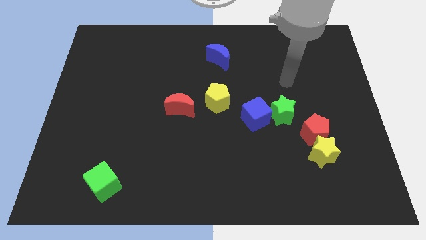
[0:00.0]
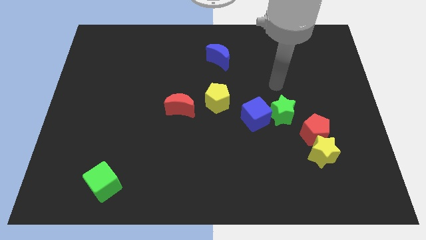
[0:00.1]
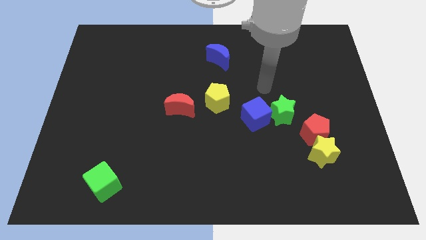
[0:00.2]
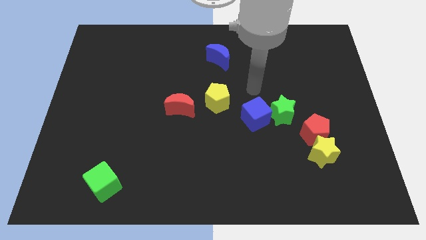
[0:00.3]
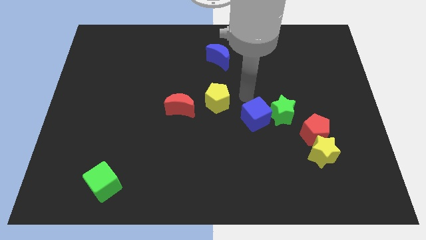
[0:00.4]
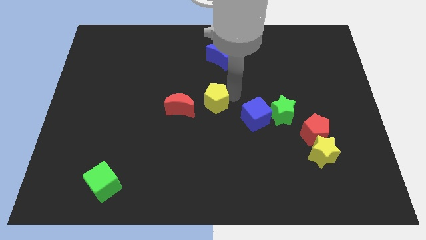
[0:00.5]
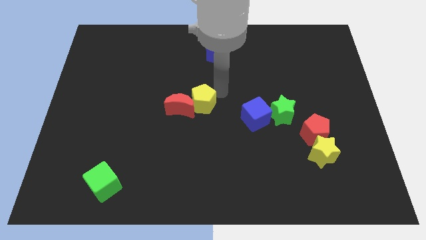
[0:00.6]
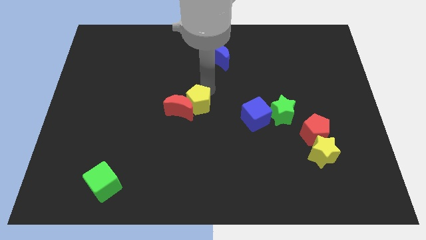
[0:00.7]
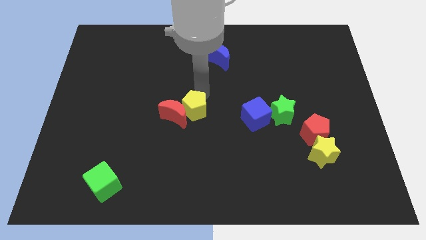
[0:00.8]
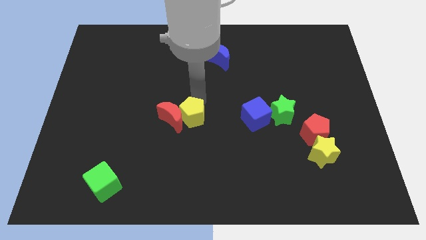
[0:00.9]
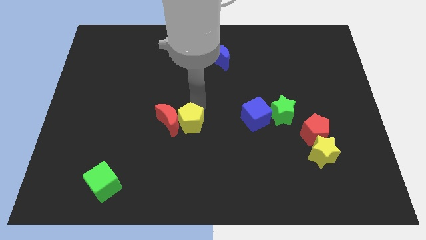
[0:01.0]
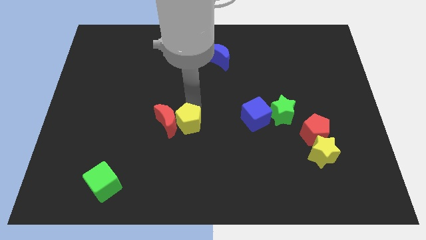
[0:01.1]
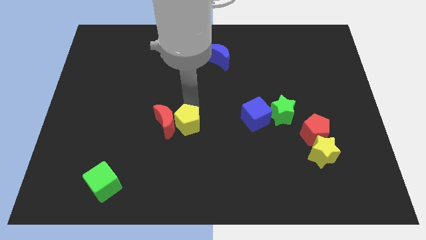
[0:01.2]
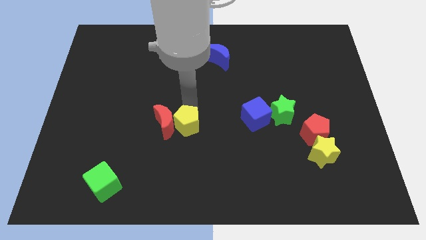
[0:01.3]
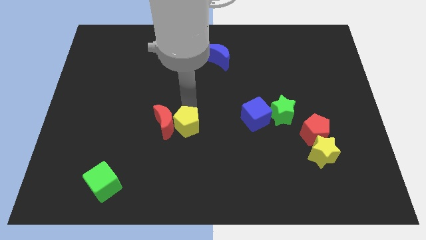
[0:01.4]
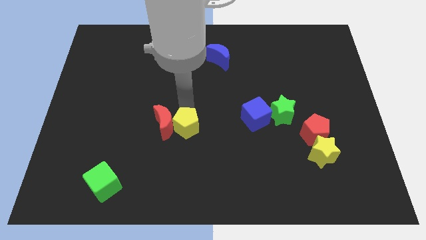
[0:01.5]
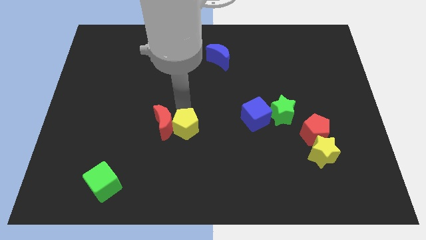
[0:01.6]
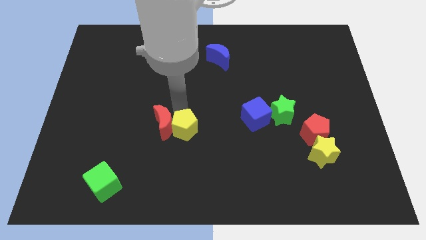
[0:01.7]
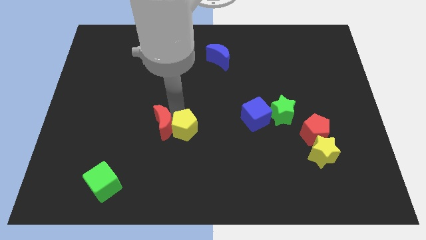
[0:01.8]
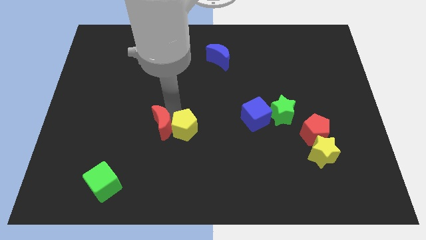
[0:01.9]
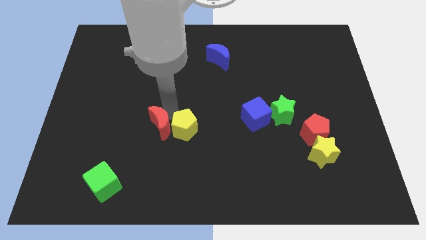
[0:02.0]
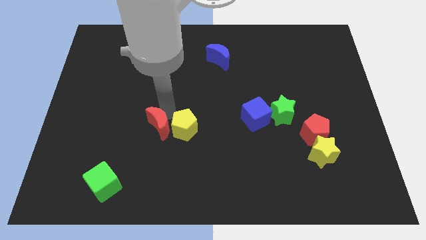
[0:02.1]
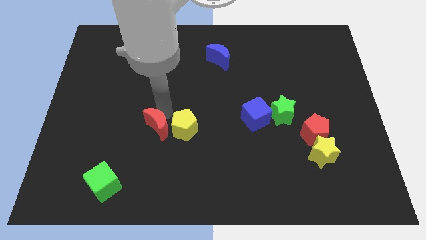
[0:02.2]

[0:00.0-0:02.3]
slightly slide the red moon down and then to the left

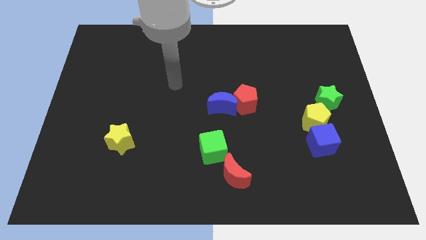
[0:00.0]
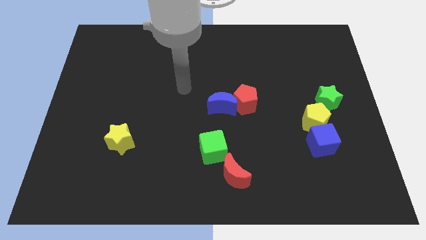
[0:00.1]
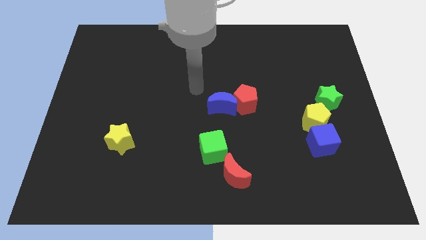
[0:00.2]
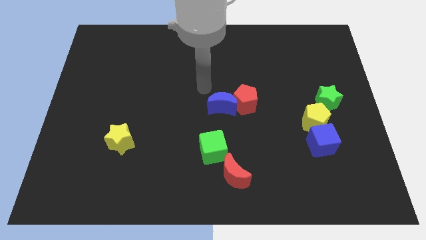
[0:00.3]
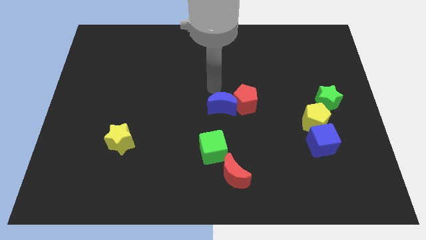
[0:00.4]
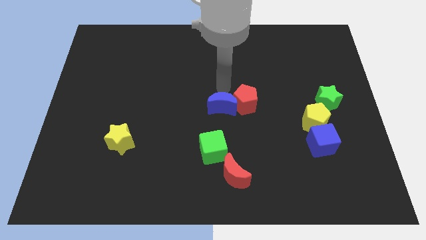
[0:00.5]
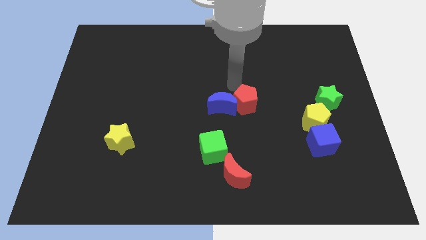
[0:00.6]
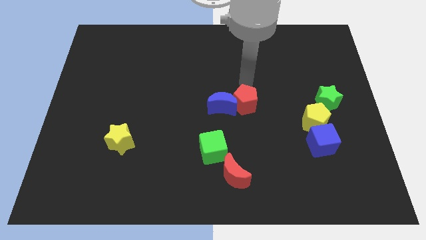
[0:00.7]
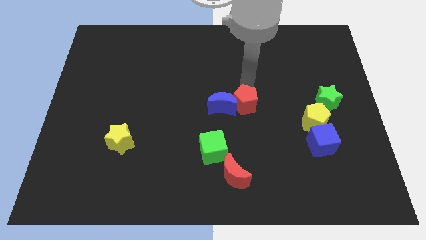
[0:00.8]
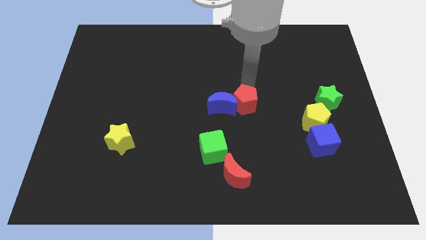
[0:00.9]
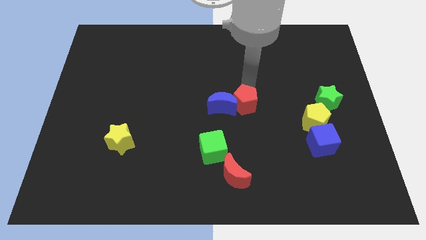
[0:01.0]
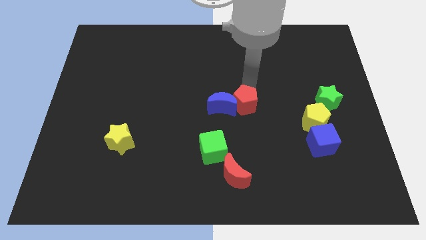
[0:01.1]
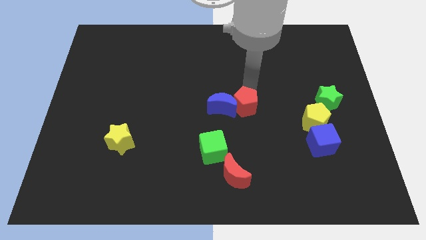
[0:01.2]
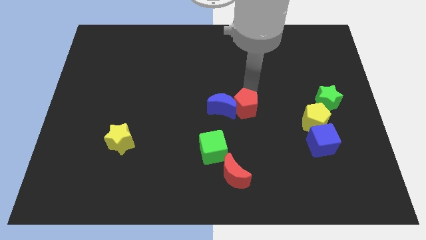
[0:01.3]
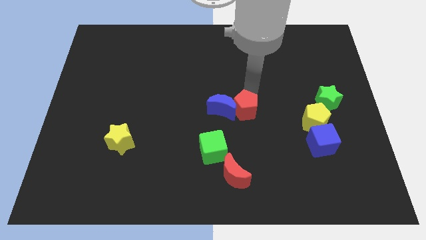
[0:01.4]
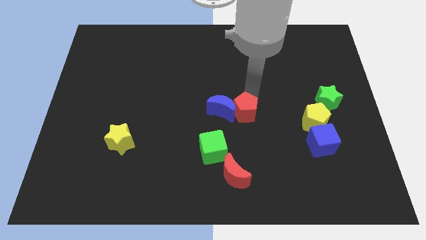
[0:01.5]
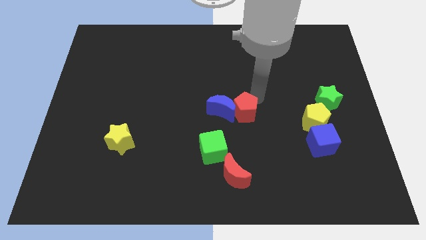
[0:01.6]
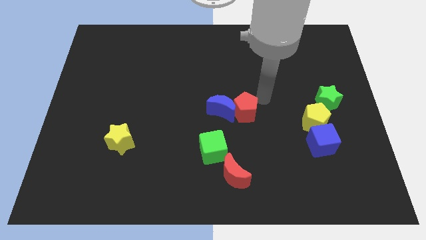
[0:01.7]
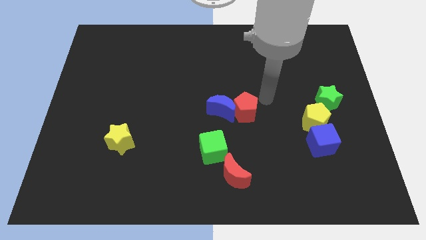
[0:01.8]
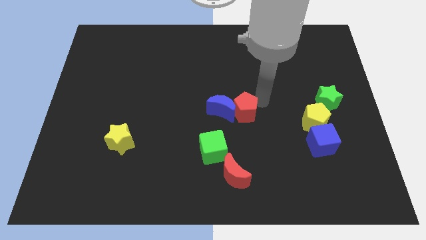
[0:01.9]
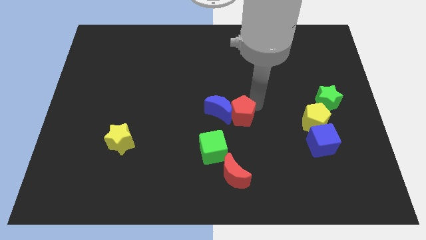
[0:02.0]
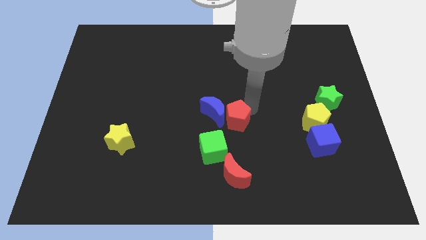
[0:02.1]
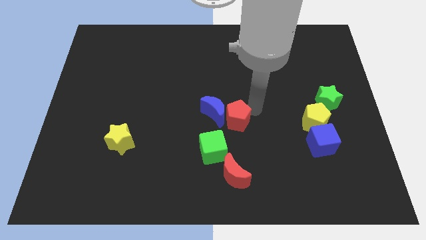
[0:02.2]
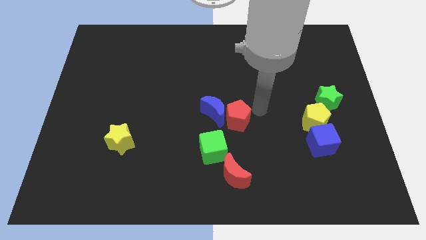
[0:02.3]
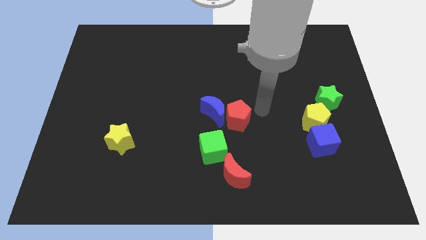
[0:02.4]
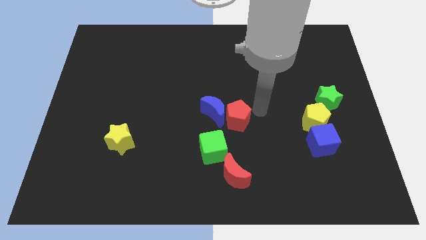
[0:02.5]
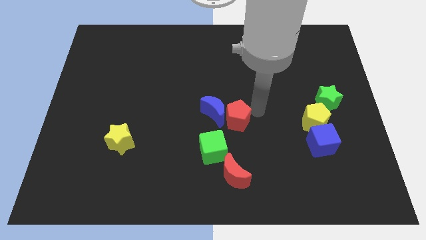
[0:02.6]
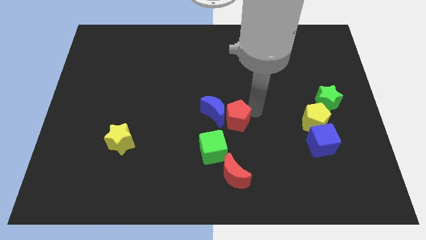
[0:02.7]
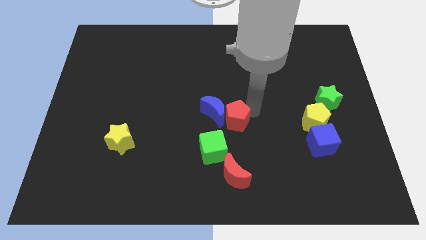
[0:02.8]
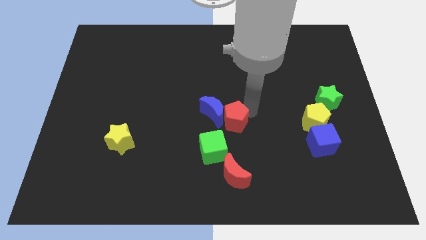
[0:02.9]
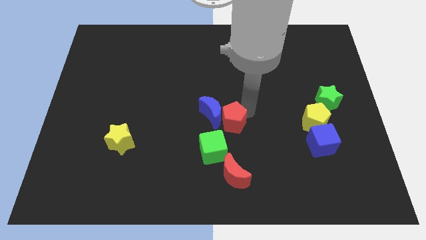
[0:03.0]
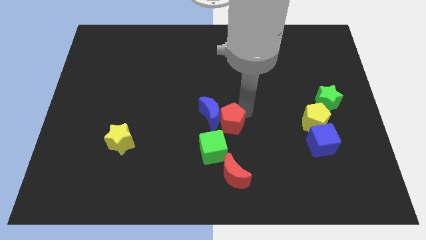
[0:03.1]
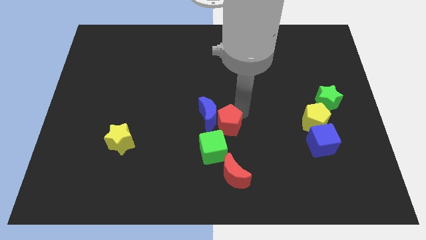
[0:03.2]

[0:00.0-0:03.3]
move the red pentagon somewhat diagonally down and to the left

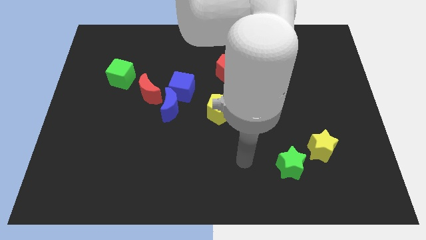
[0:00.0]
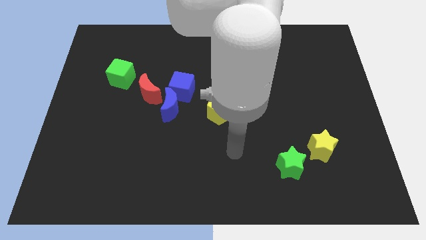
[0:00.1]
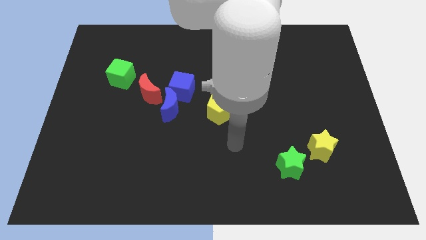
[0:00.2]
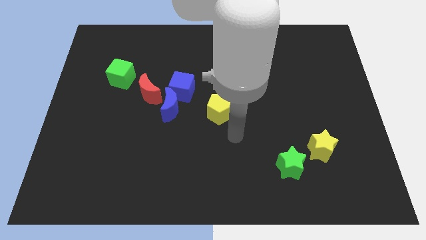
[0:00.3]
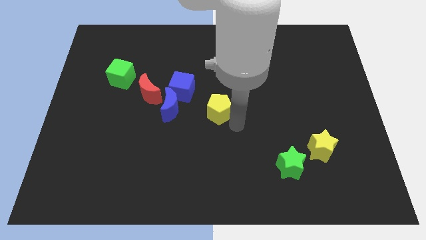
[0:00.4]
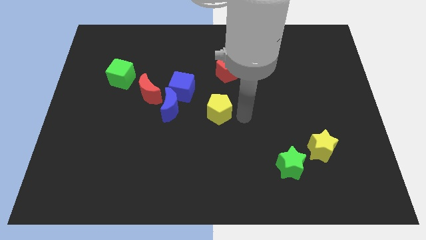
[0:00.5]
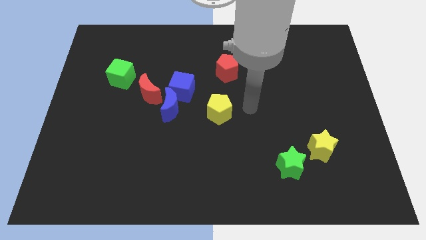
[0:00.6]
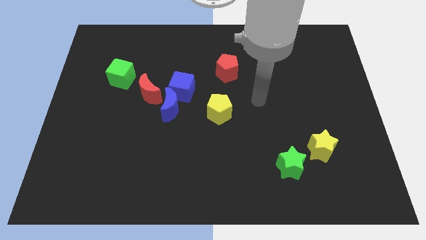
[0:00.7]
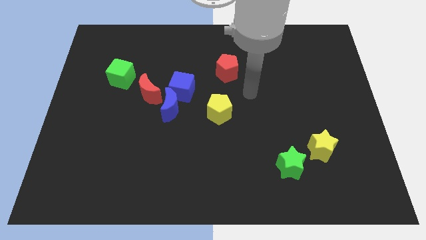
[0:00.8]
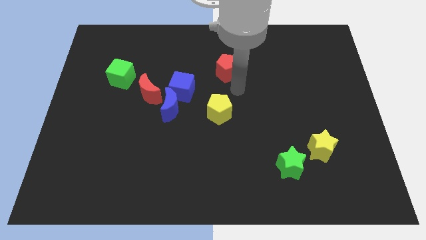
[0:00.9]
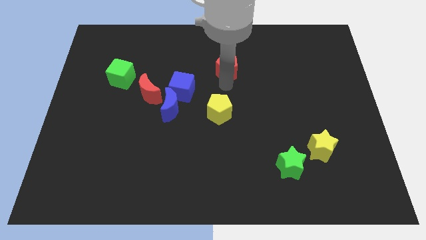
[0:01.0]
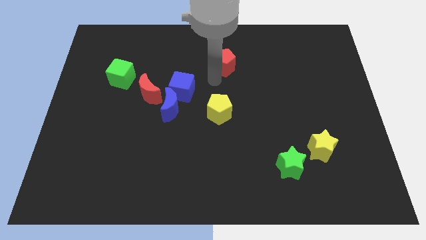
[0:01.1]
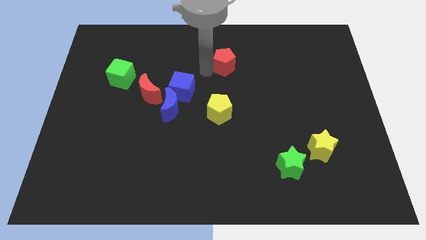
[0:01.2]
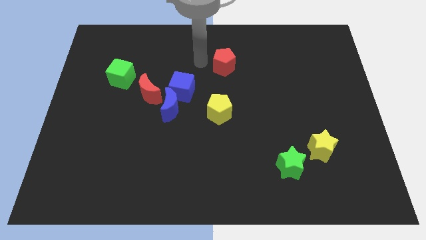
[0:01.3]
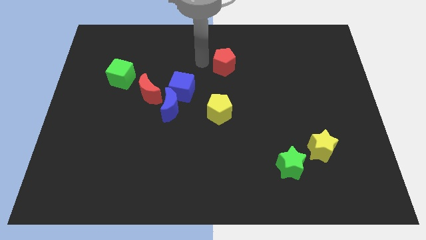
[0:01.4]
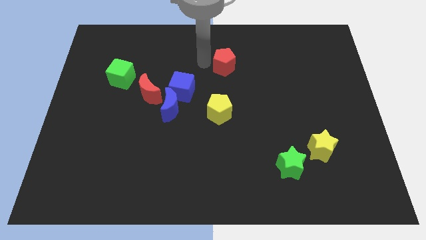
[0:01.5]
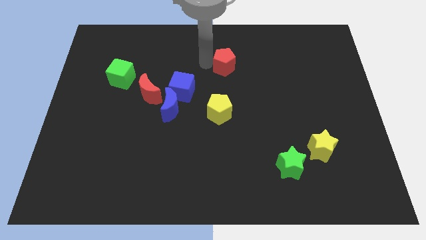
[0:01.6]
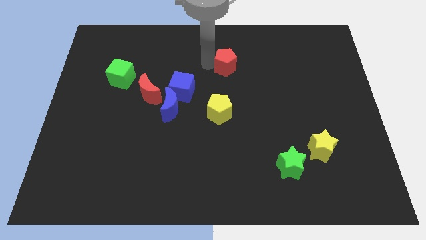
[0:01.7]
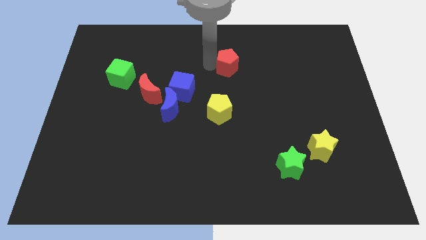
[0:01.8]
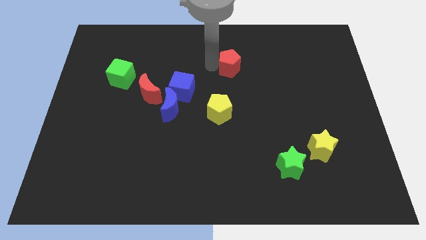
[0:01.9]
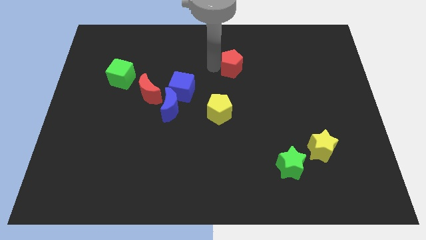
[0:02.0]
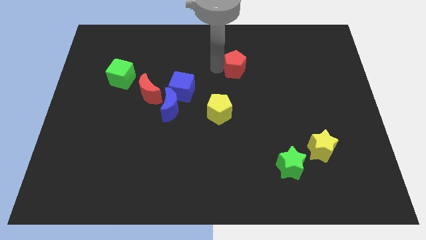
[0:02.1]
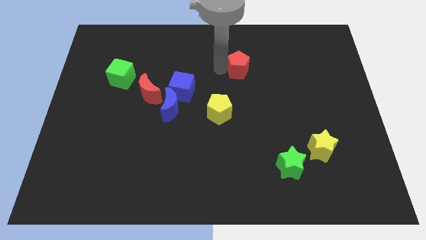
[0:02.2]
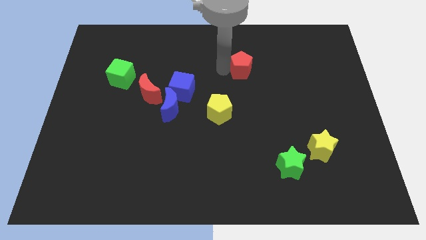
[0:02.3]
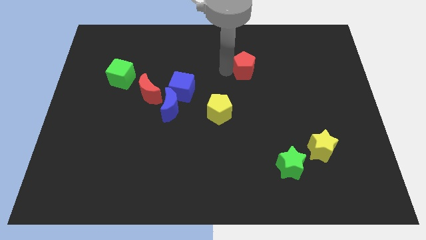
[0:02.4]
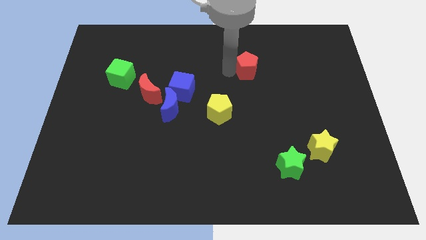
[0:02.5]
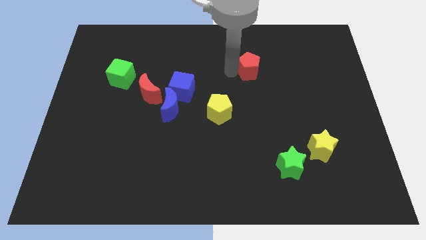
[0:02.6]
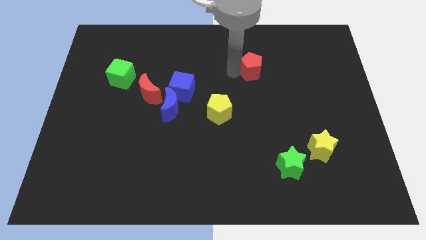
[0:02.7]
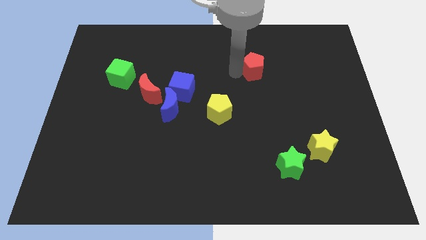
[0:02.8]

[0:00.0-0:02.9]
slide the red pentagon to the right a bit
